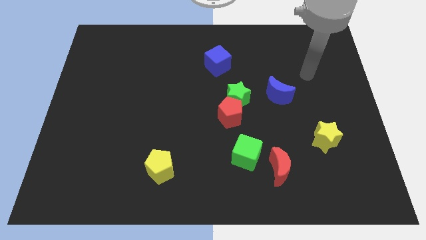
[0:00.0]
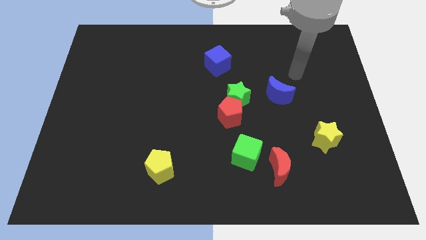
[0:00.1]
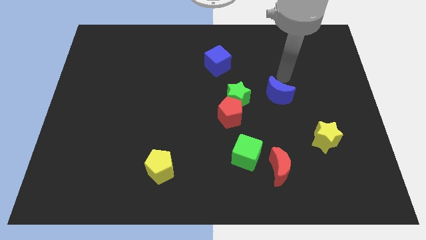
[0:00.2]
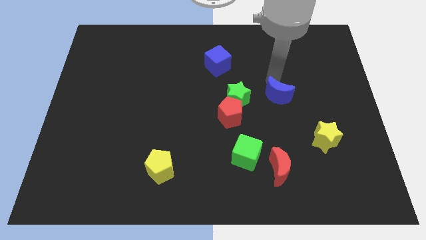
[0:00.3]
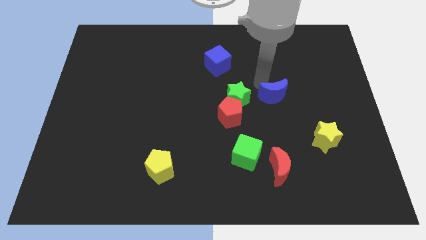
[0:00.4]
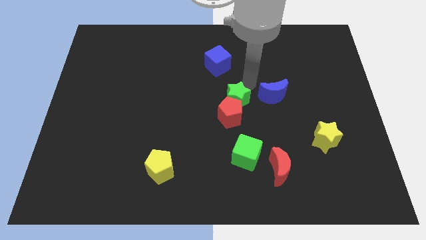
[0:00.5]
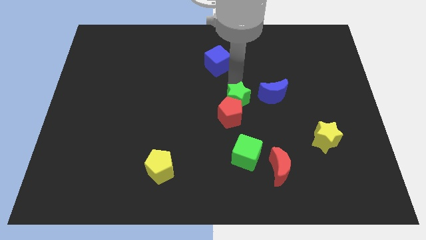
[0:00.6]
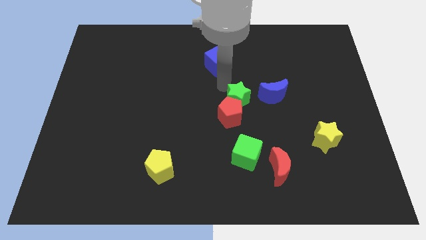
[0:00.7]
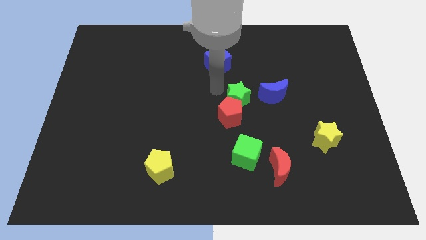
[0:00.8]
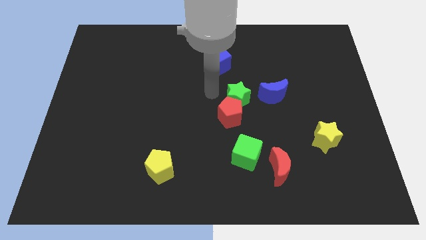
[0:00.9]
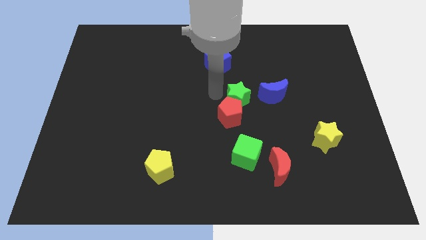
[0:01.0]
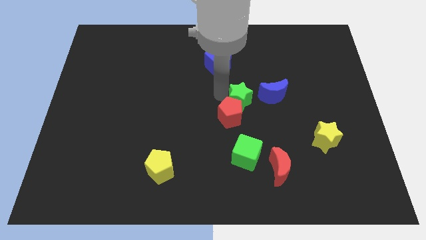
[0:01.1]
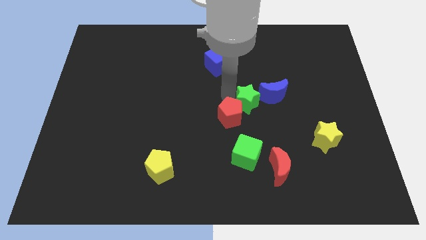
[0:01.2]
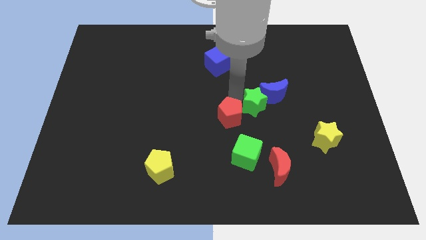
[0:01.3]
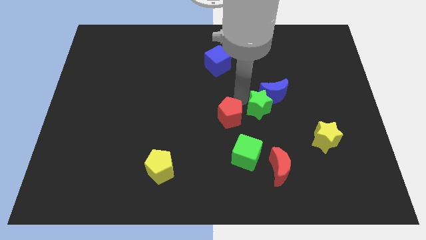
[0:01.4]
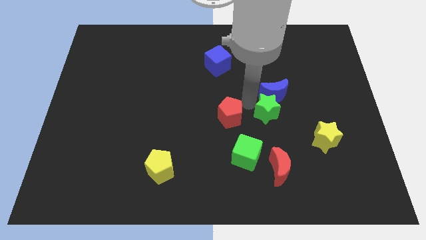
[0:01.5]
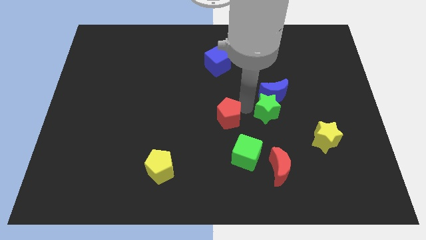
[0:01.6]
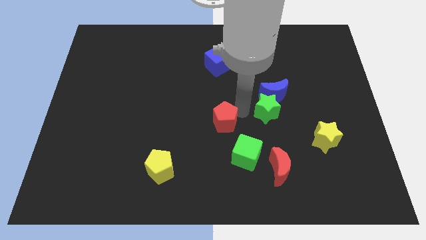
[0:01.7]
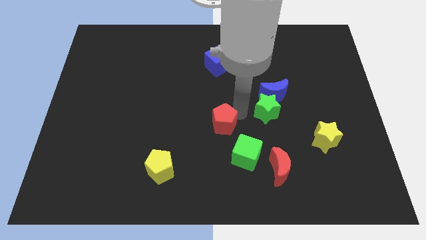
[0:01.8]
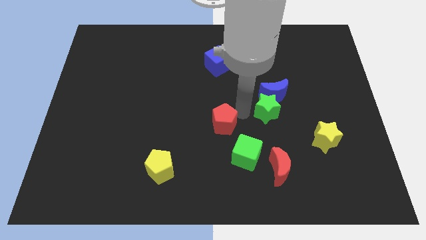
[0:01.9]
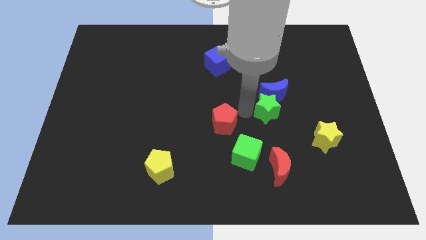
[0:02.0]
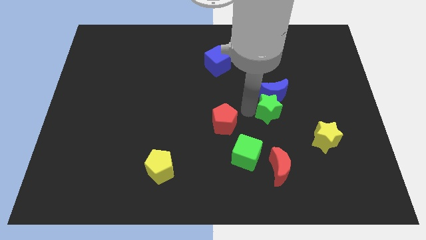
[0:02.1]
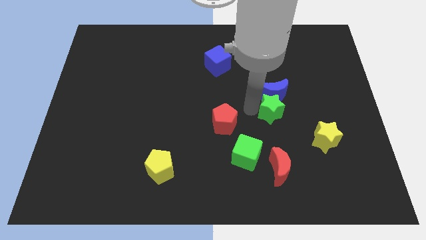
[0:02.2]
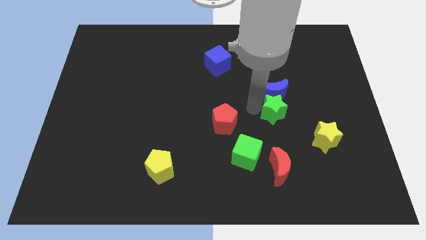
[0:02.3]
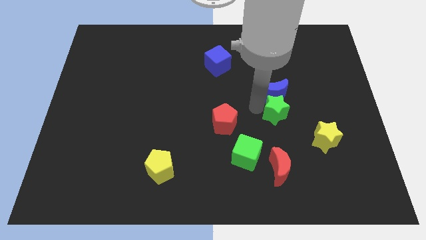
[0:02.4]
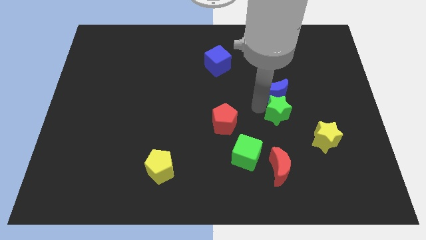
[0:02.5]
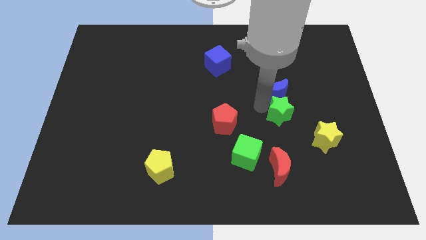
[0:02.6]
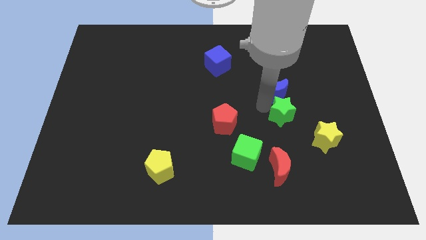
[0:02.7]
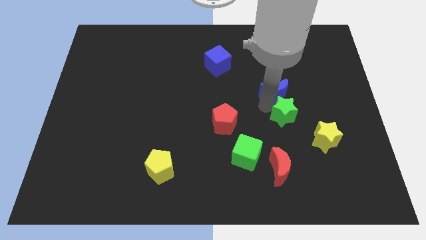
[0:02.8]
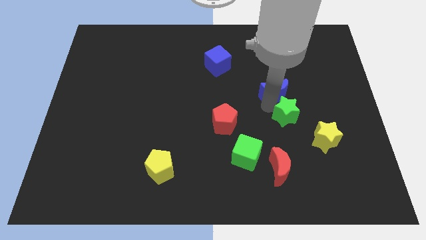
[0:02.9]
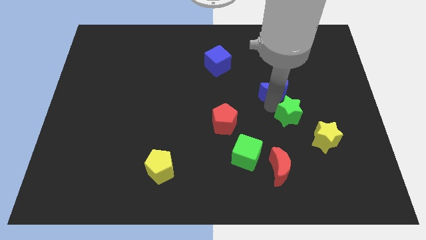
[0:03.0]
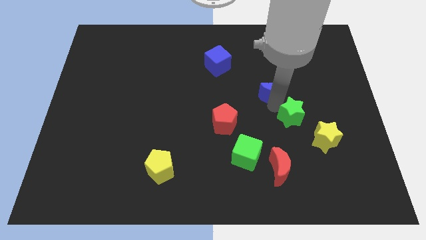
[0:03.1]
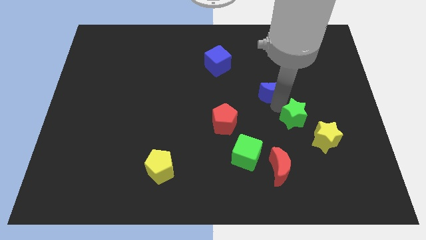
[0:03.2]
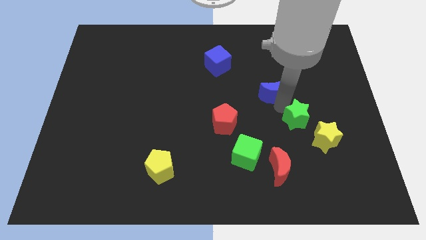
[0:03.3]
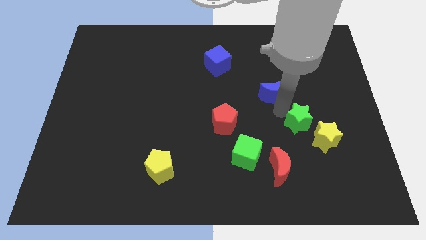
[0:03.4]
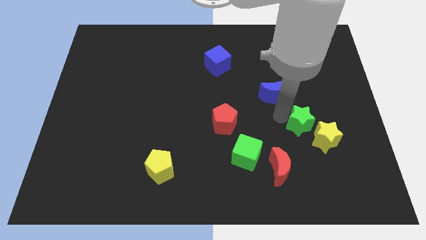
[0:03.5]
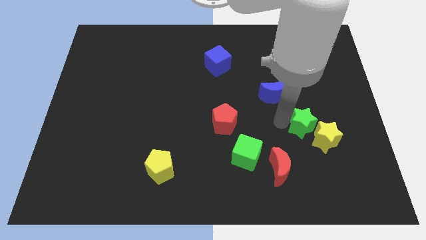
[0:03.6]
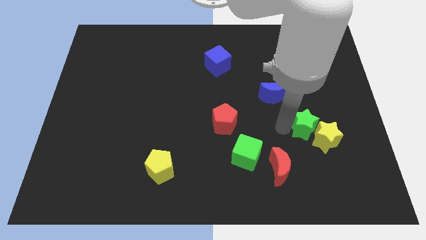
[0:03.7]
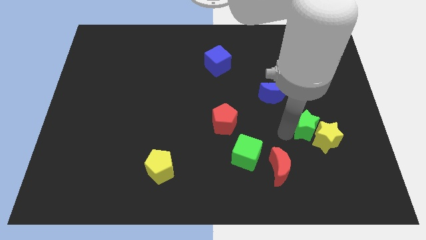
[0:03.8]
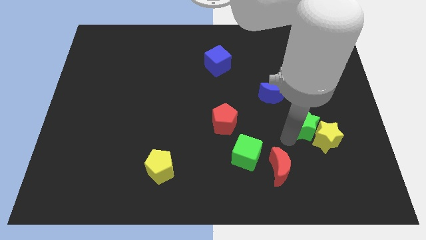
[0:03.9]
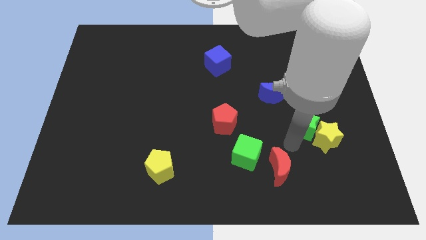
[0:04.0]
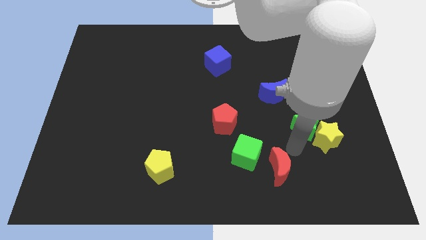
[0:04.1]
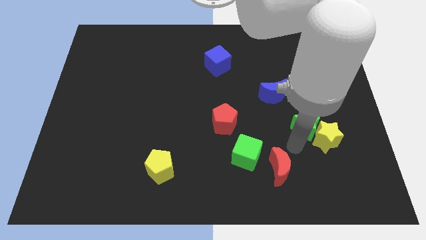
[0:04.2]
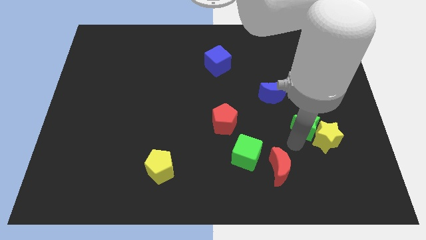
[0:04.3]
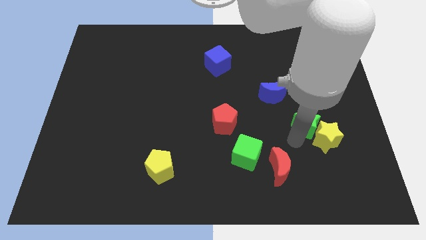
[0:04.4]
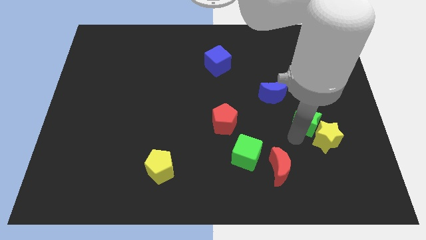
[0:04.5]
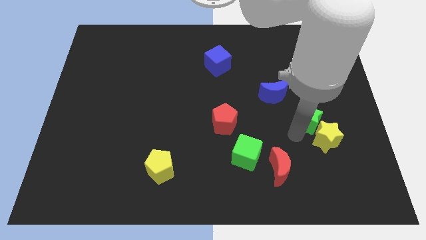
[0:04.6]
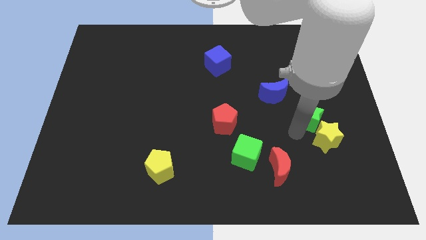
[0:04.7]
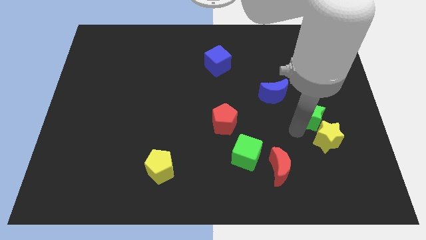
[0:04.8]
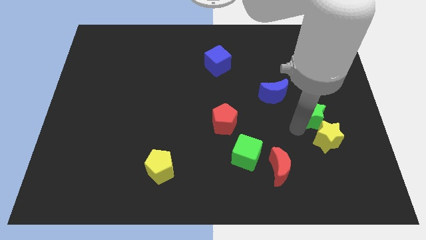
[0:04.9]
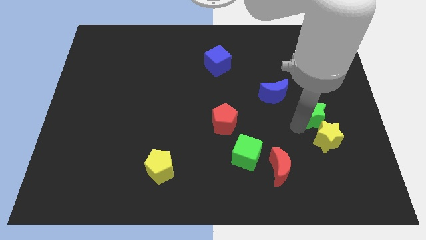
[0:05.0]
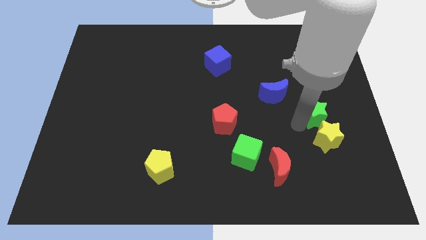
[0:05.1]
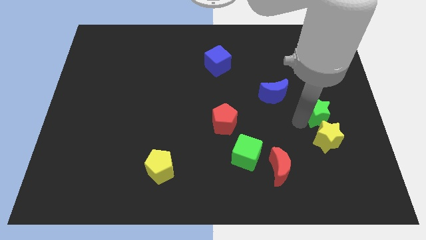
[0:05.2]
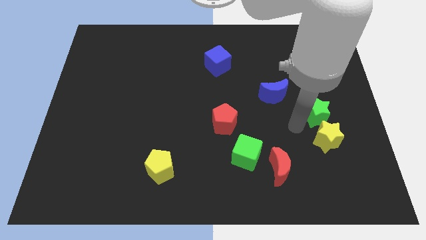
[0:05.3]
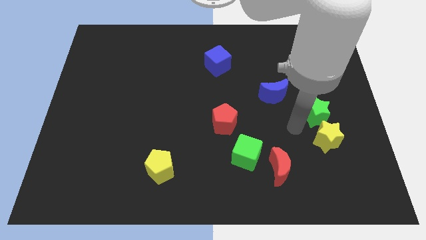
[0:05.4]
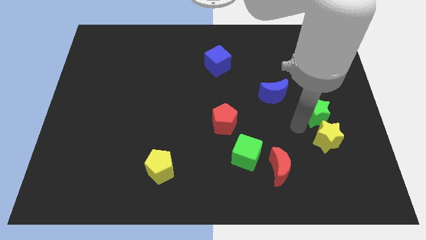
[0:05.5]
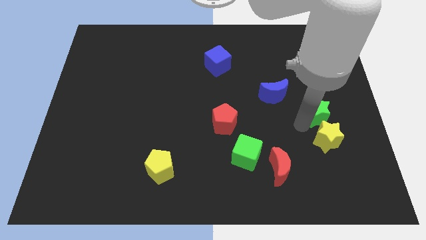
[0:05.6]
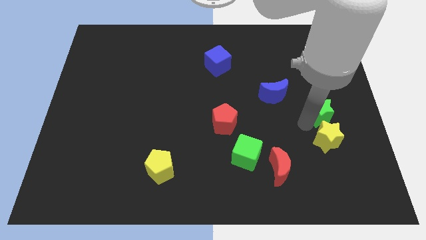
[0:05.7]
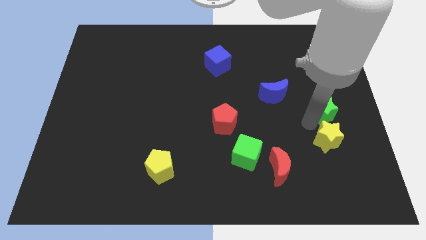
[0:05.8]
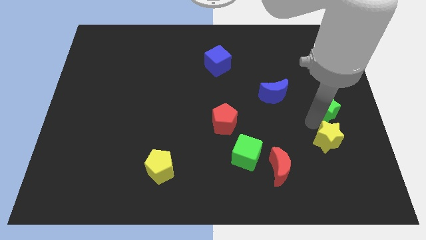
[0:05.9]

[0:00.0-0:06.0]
put the green star to the right side
